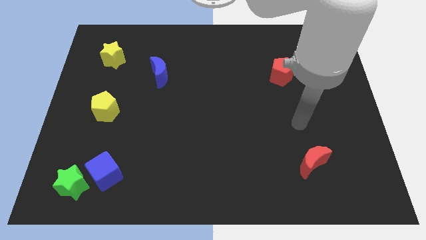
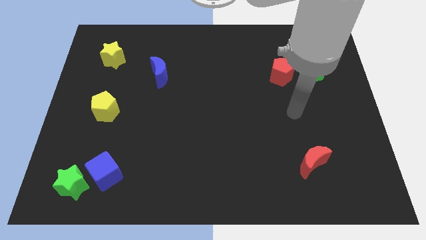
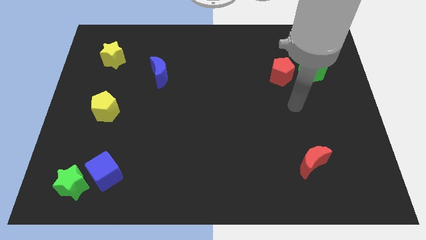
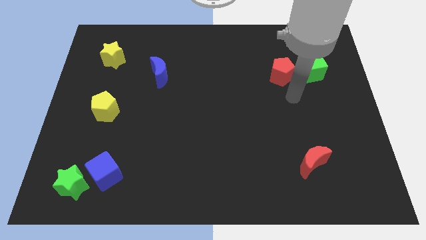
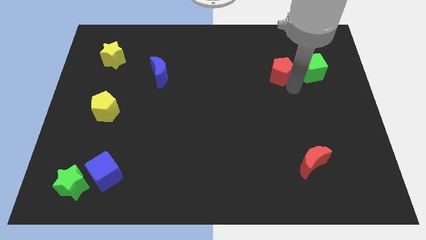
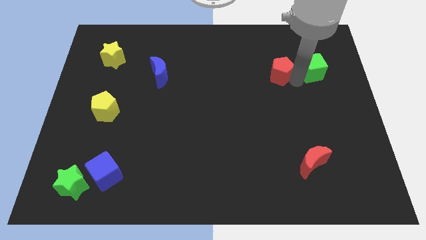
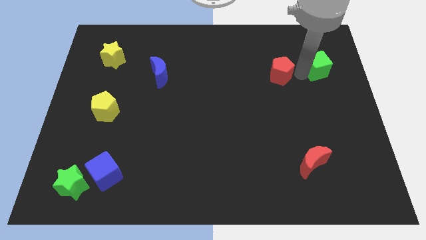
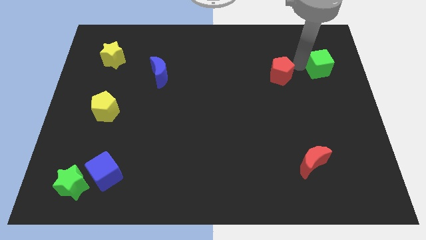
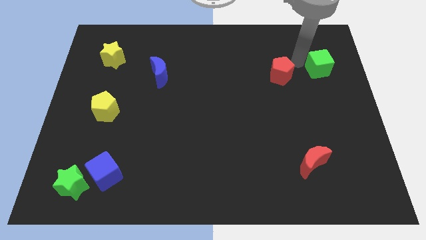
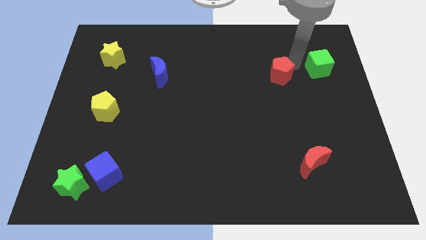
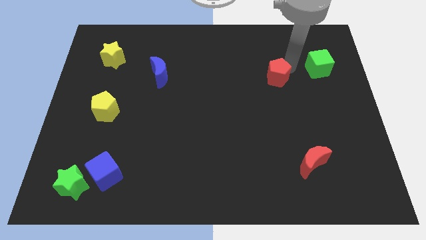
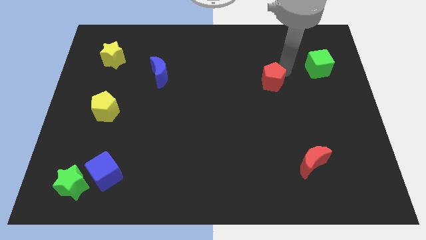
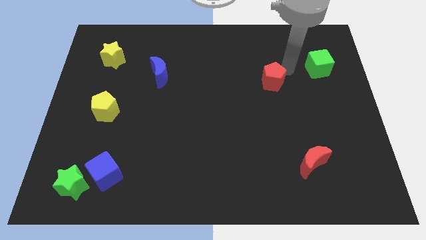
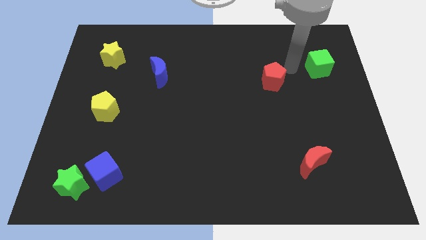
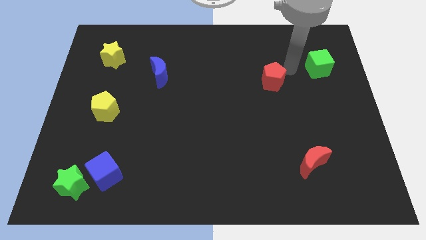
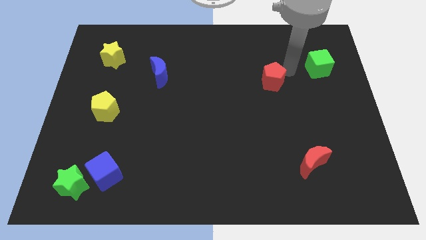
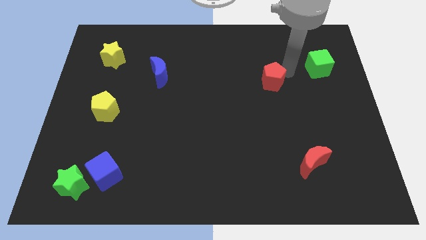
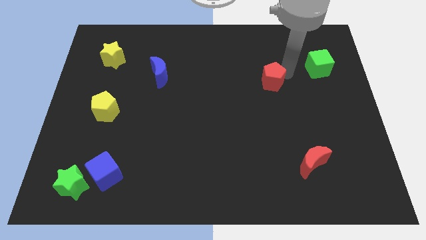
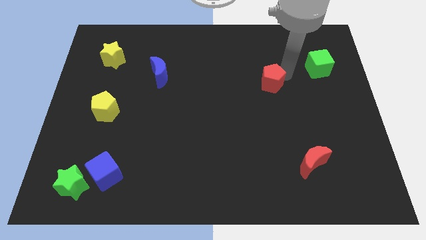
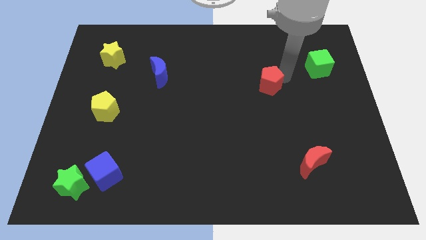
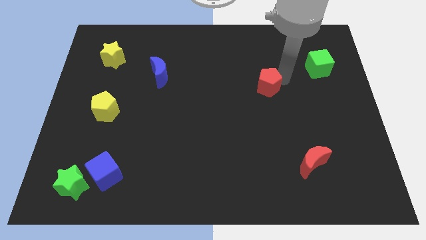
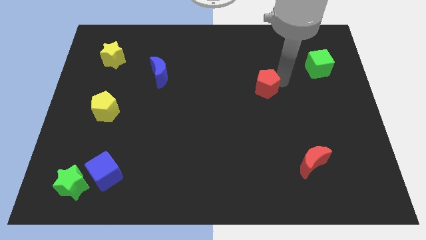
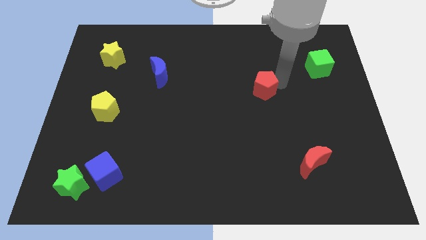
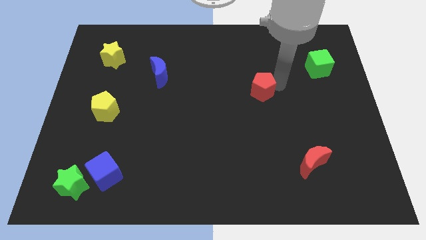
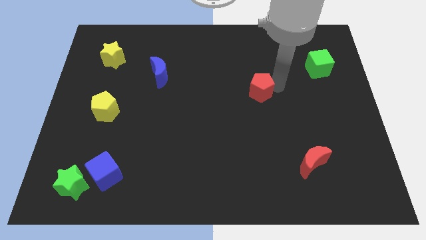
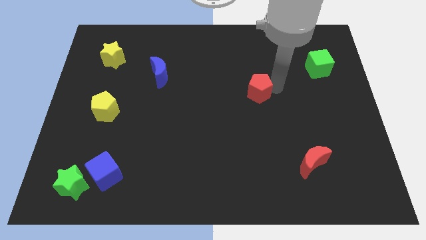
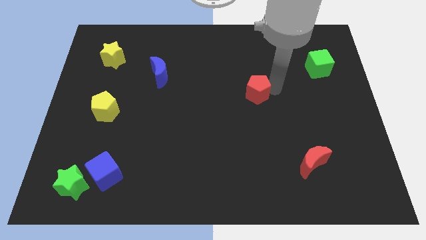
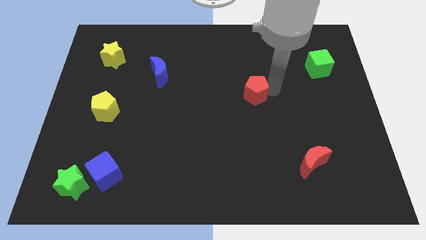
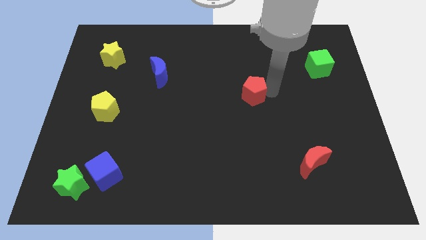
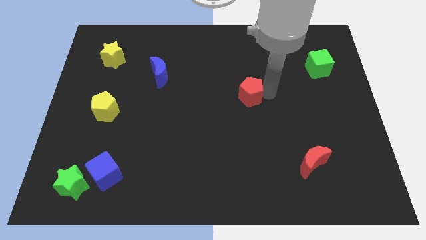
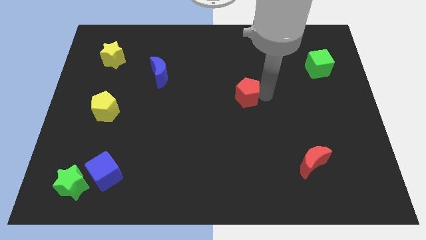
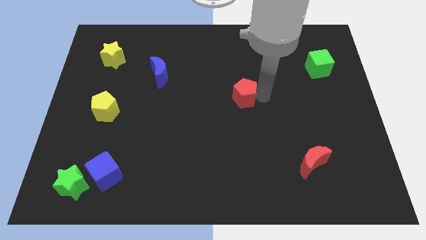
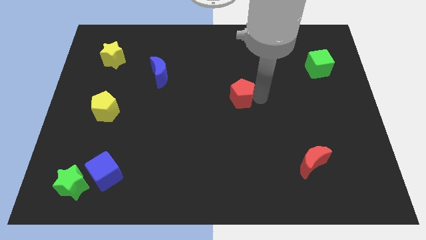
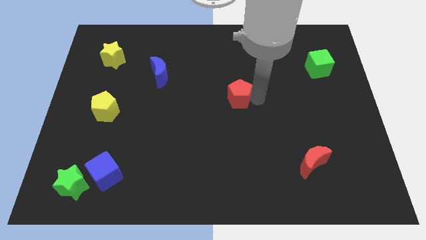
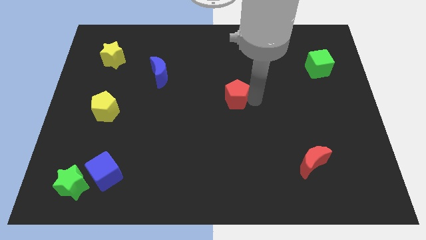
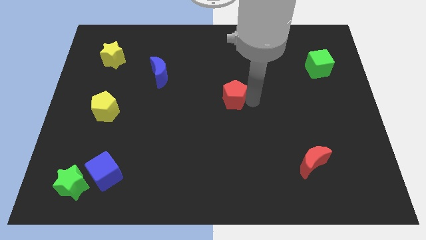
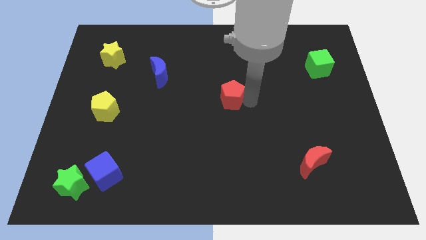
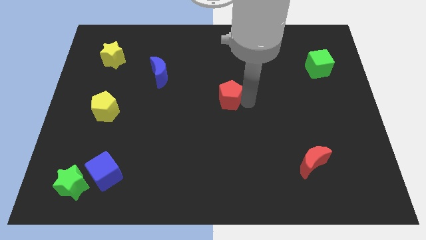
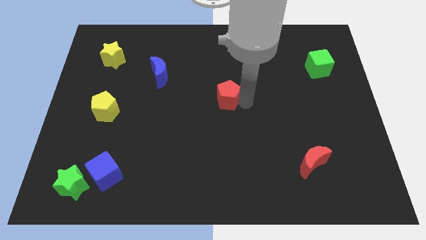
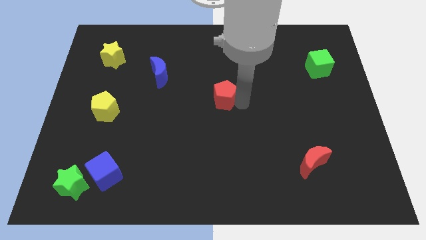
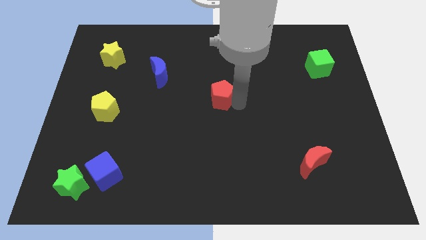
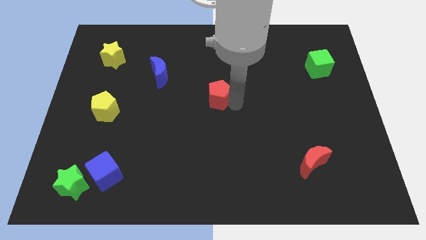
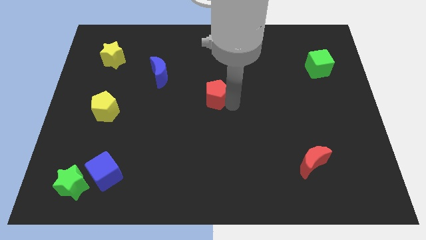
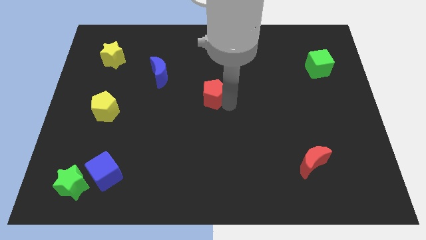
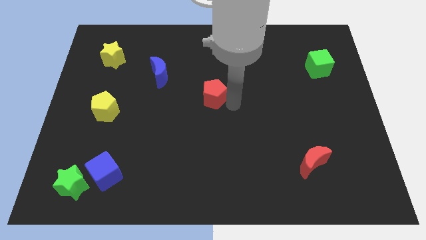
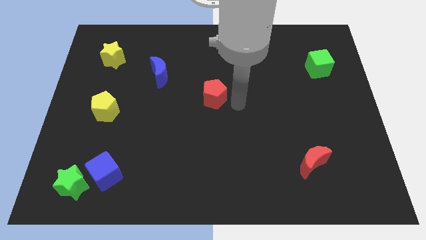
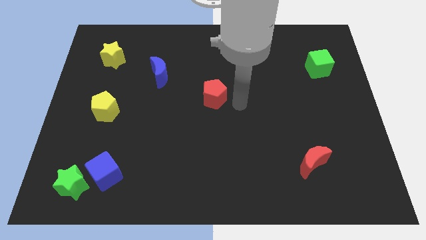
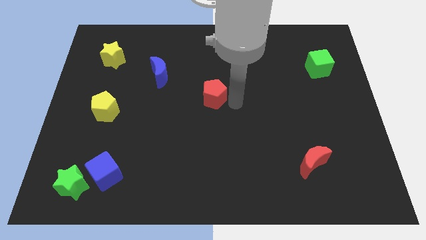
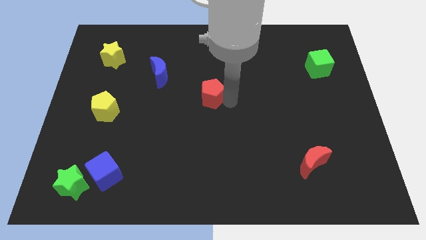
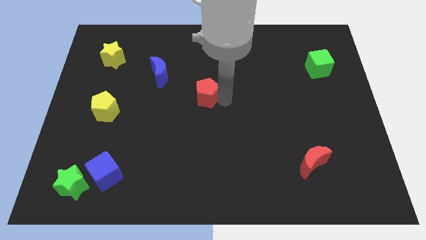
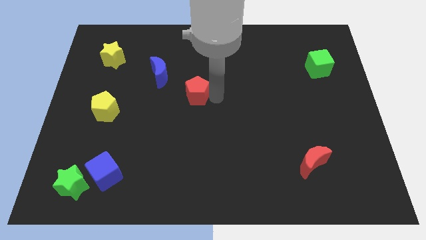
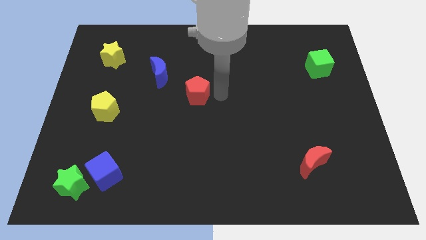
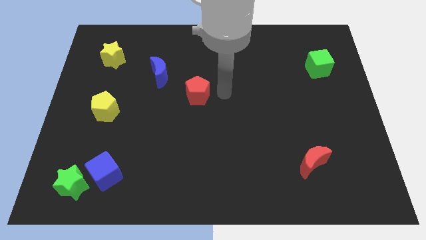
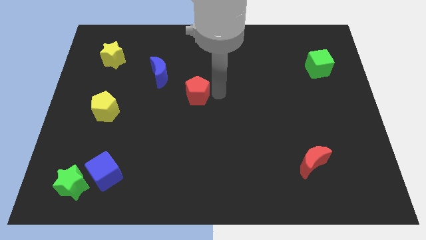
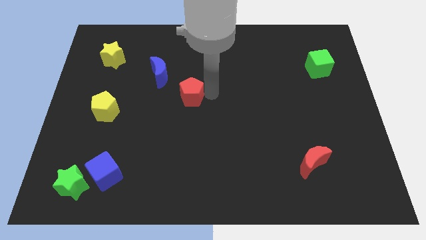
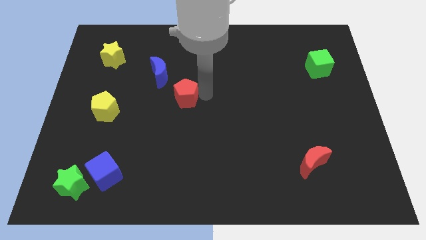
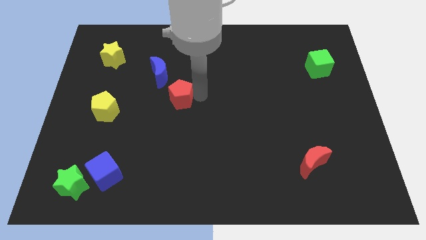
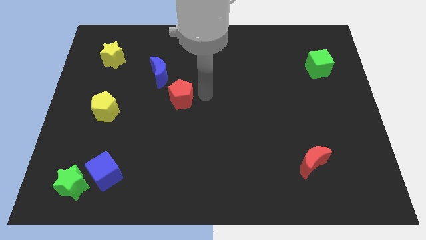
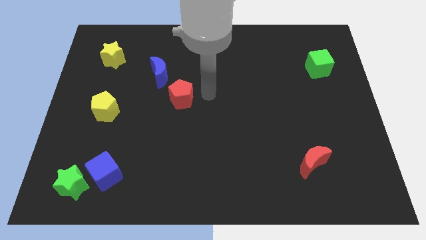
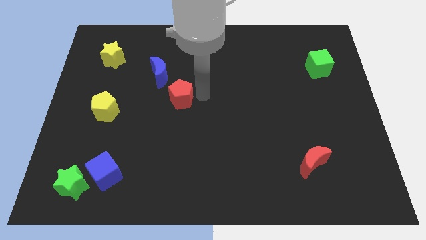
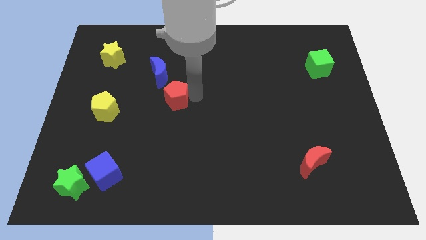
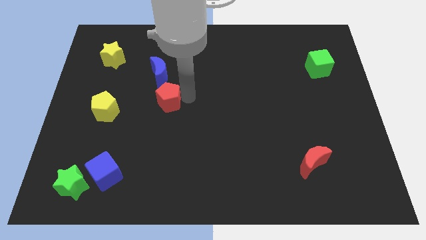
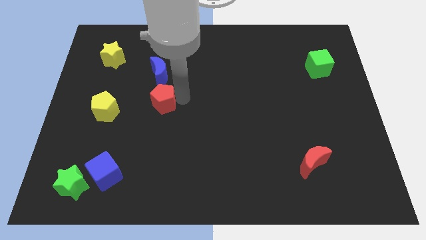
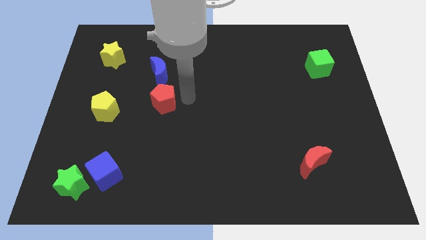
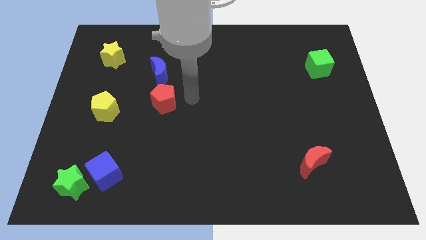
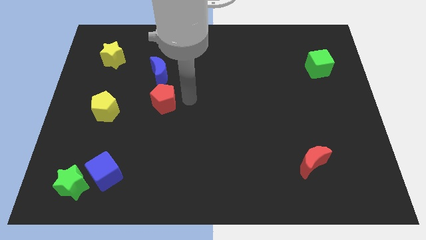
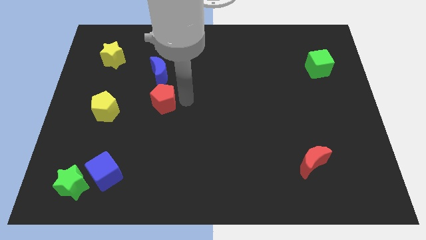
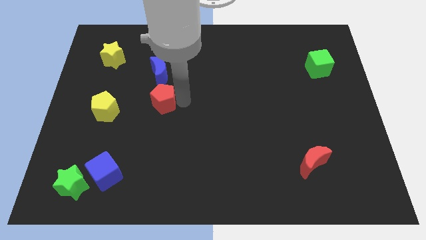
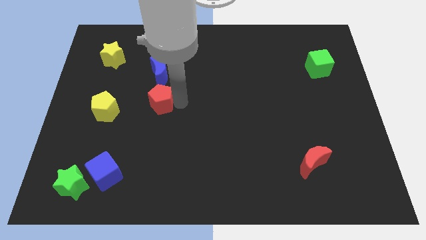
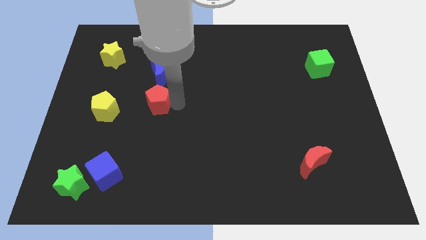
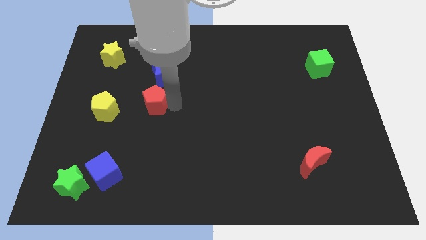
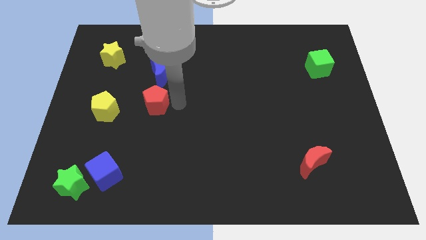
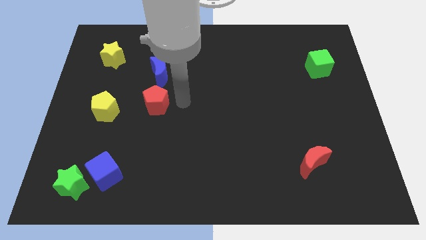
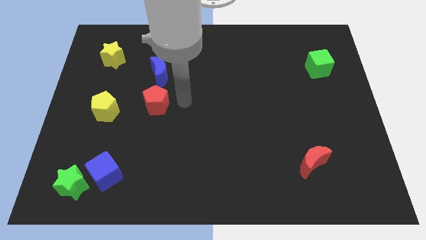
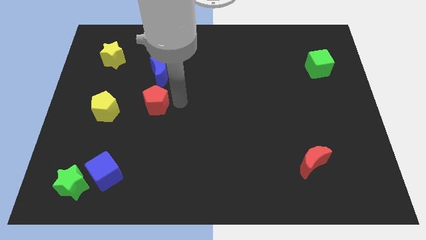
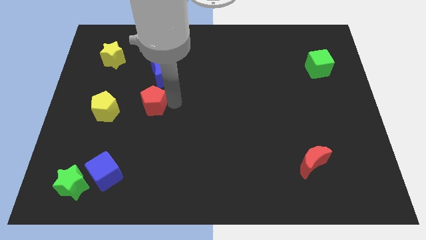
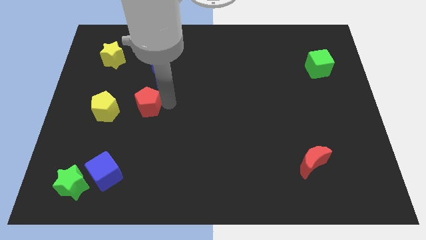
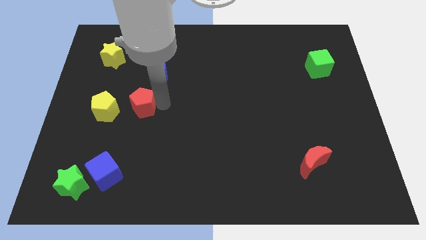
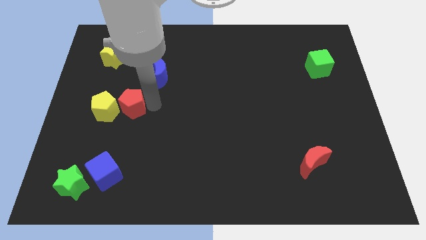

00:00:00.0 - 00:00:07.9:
put the red pentagon to the yellow pentagon
